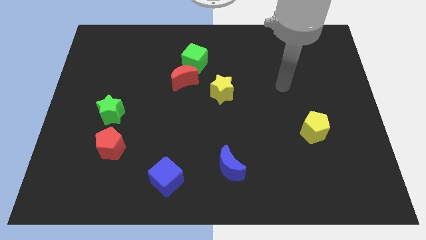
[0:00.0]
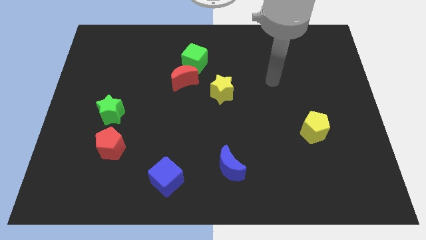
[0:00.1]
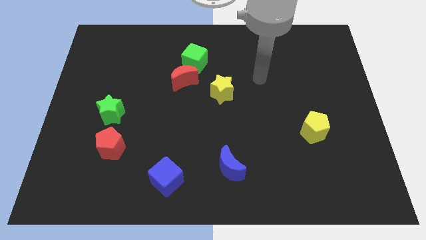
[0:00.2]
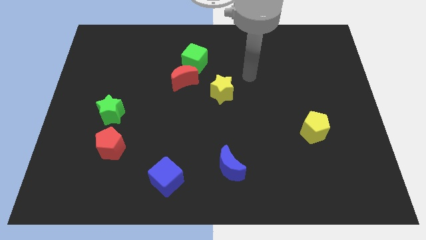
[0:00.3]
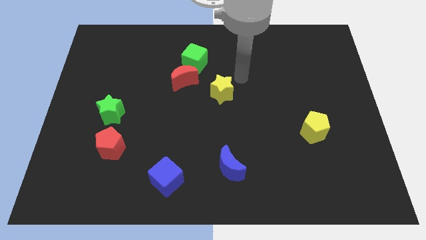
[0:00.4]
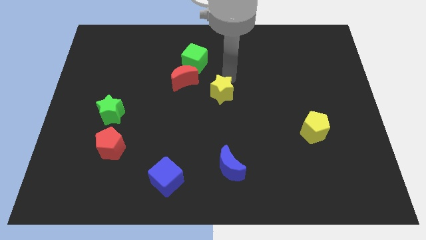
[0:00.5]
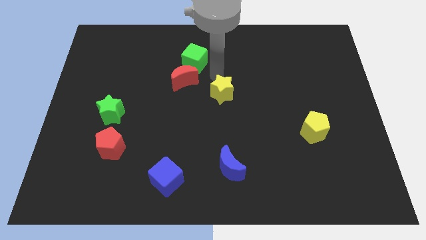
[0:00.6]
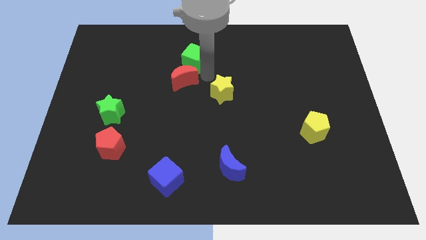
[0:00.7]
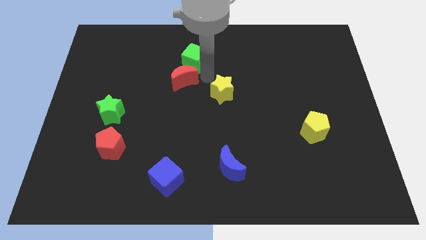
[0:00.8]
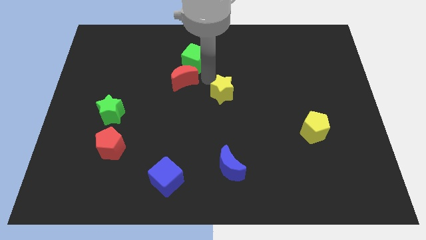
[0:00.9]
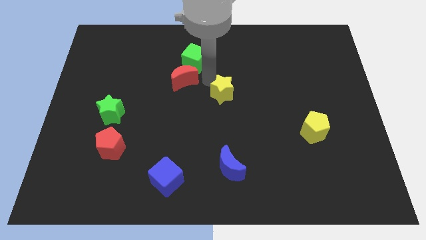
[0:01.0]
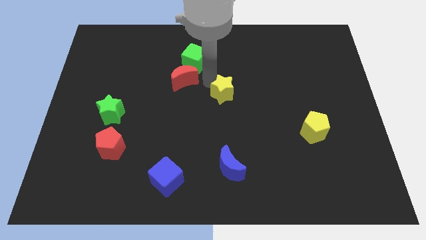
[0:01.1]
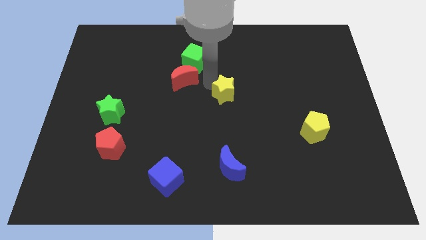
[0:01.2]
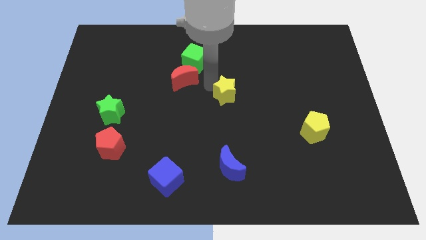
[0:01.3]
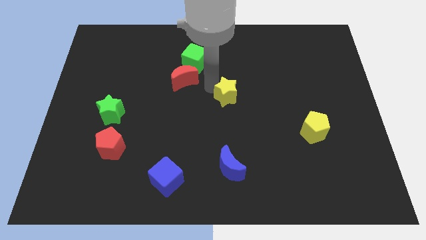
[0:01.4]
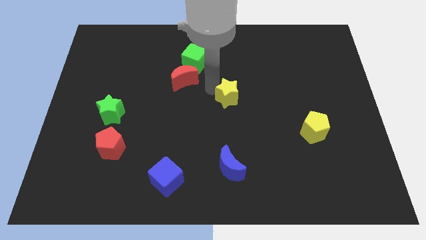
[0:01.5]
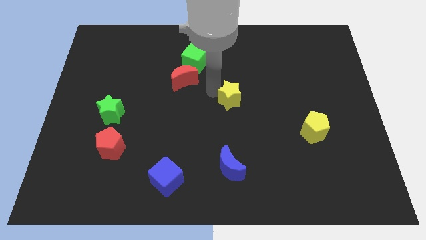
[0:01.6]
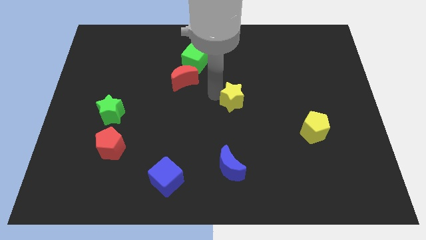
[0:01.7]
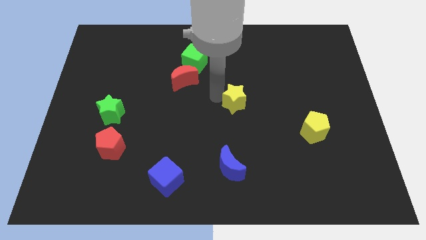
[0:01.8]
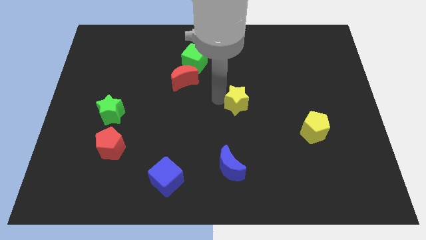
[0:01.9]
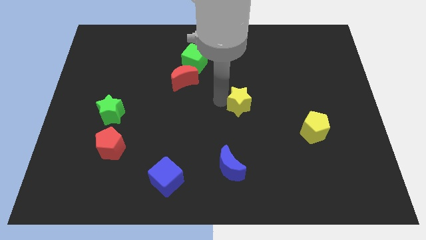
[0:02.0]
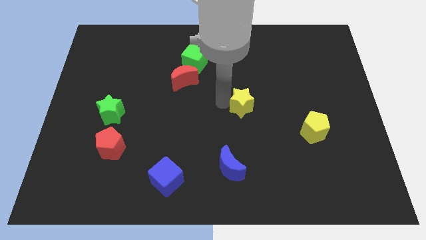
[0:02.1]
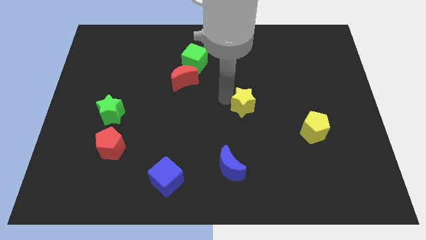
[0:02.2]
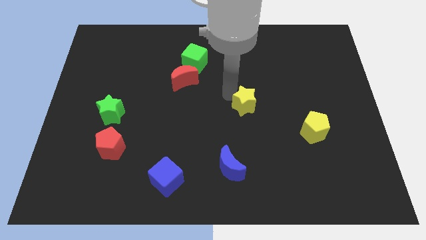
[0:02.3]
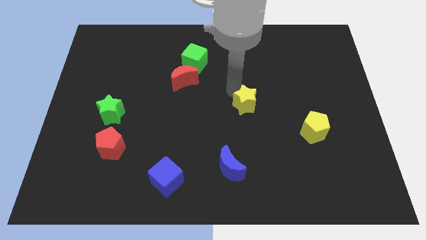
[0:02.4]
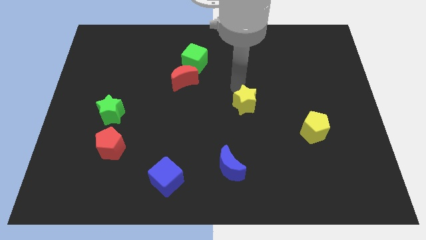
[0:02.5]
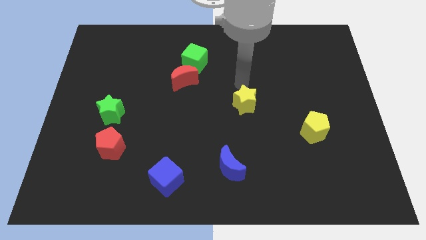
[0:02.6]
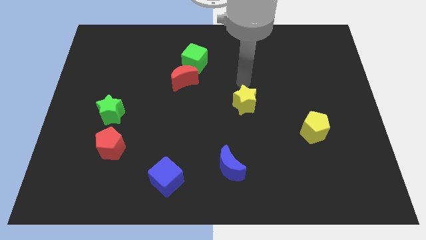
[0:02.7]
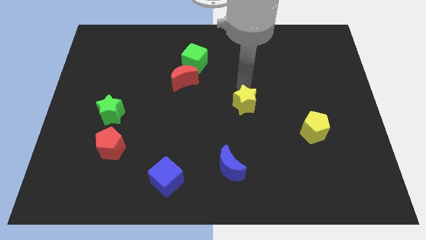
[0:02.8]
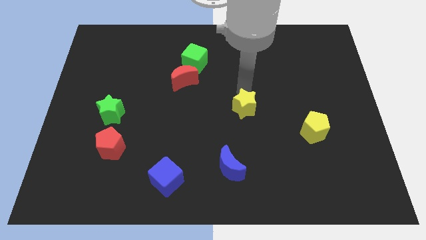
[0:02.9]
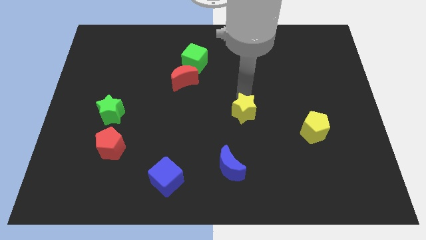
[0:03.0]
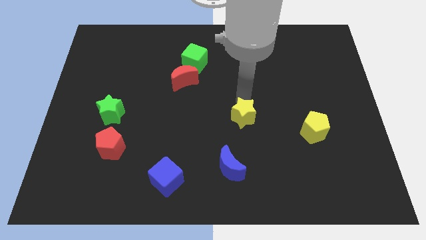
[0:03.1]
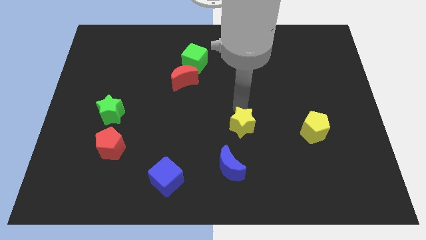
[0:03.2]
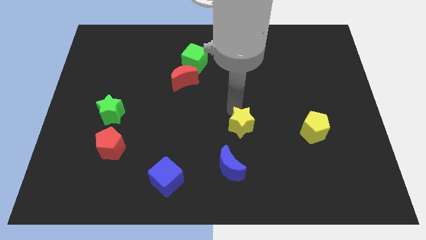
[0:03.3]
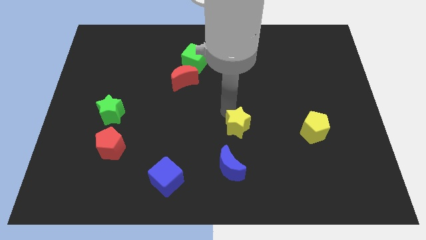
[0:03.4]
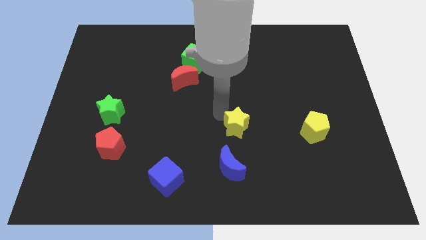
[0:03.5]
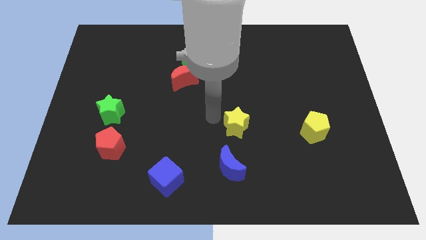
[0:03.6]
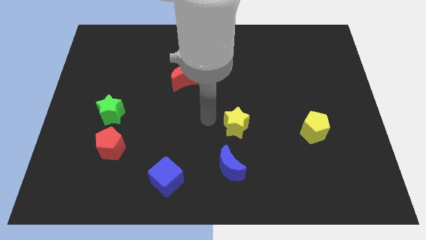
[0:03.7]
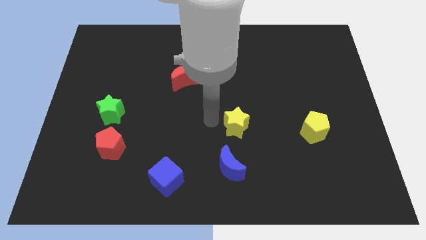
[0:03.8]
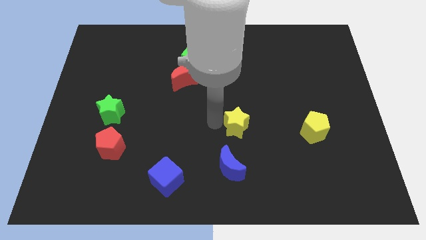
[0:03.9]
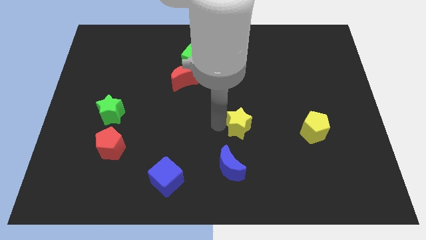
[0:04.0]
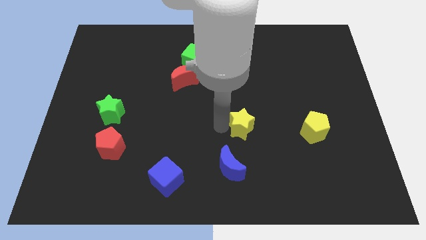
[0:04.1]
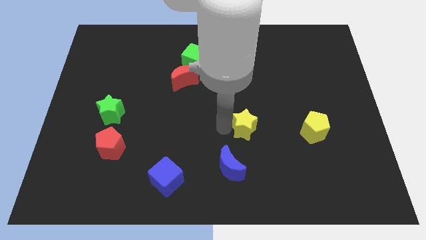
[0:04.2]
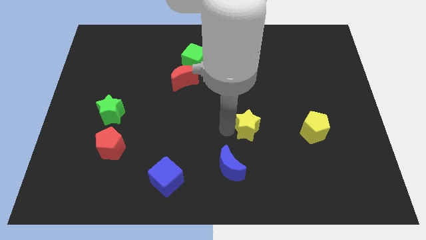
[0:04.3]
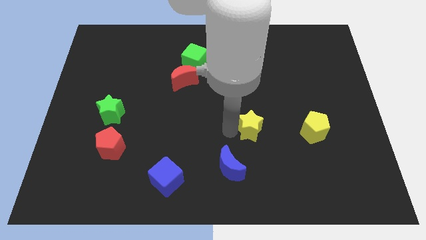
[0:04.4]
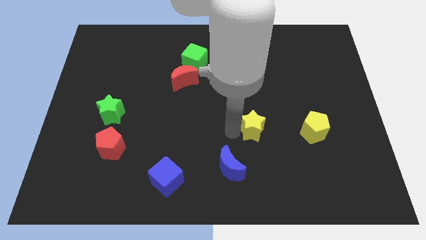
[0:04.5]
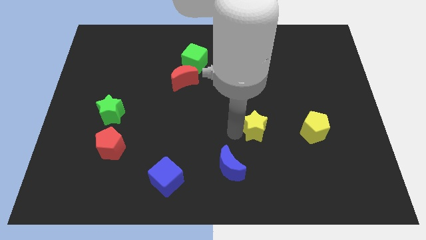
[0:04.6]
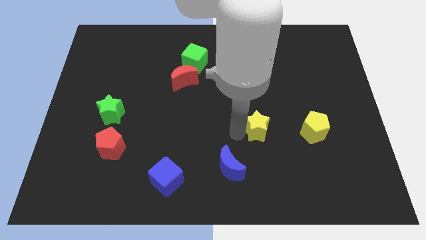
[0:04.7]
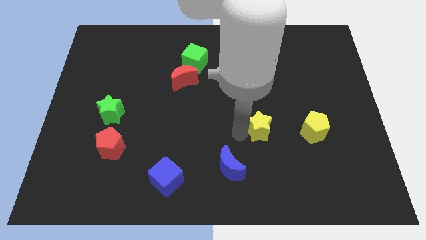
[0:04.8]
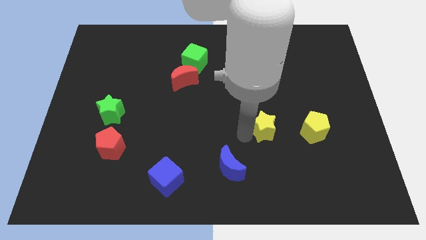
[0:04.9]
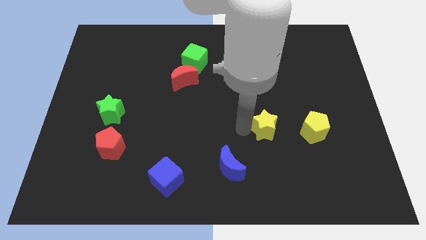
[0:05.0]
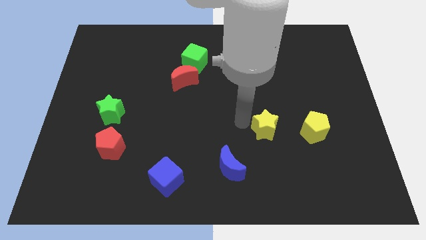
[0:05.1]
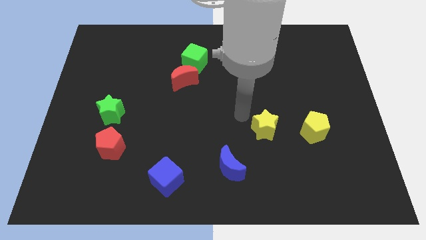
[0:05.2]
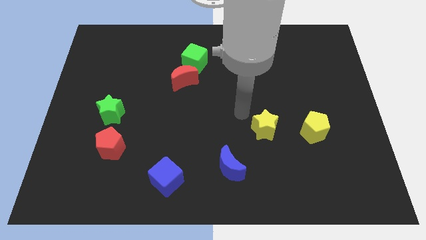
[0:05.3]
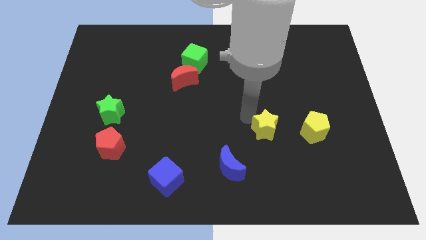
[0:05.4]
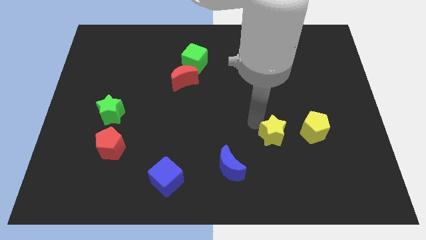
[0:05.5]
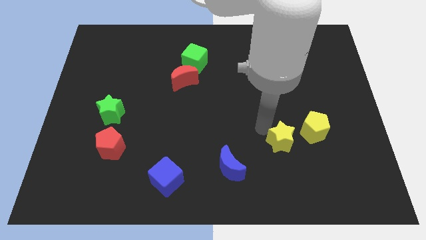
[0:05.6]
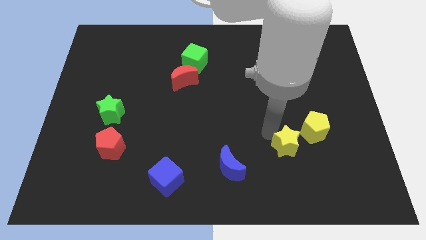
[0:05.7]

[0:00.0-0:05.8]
move the yellow star down and right diagonally

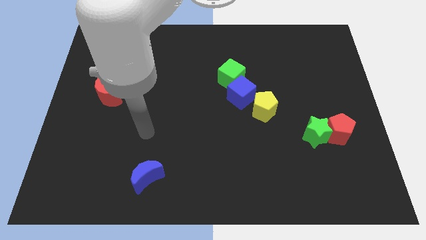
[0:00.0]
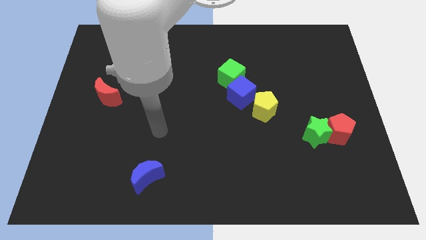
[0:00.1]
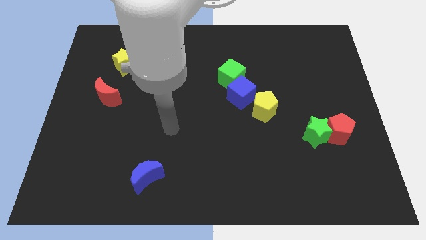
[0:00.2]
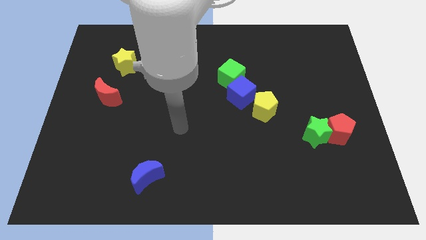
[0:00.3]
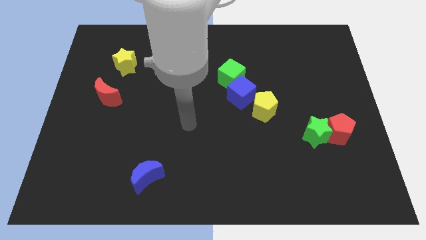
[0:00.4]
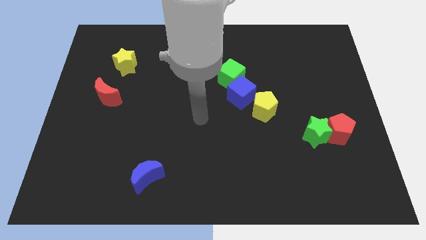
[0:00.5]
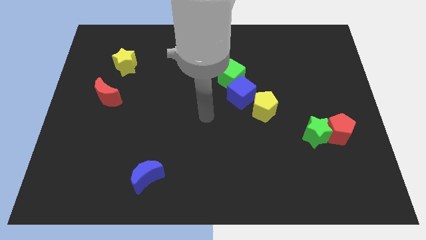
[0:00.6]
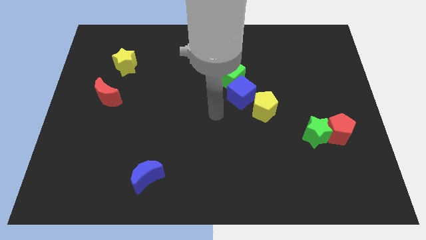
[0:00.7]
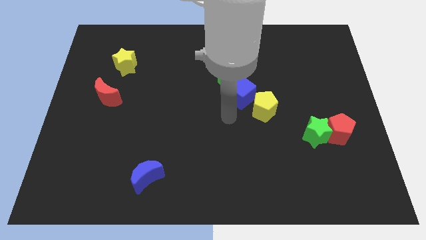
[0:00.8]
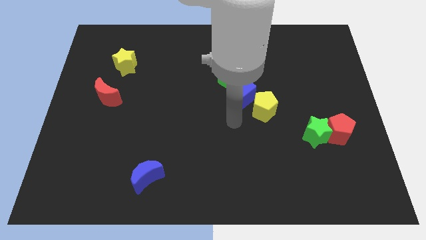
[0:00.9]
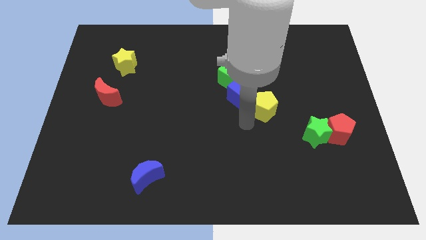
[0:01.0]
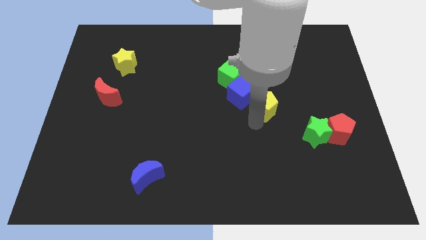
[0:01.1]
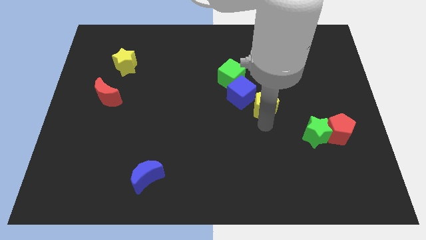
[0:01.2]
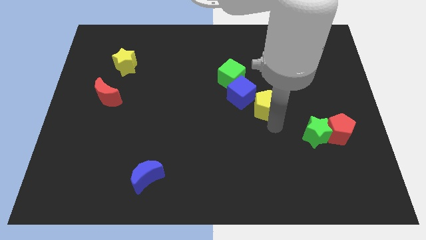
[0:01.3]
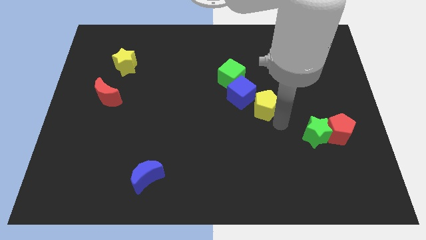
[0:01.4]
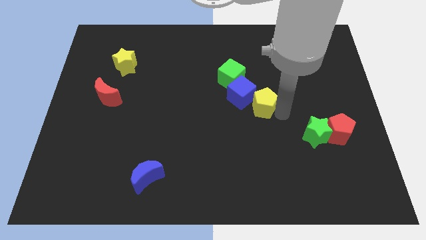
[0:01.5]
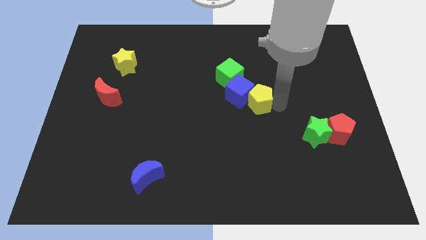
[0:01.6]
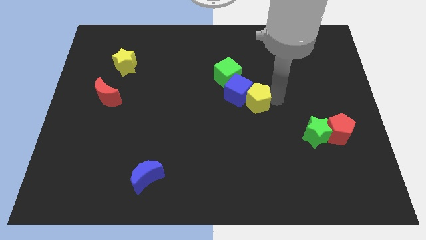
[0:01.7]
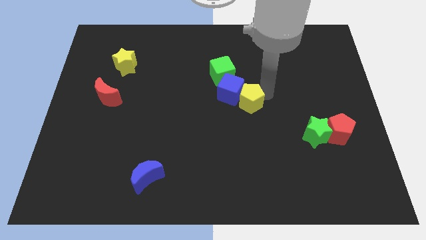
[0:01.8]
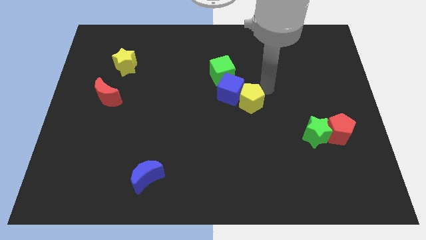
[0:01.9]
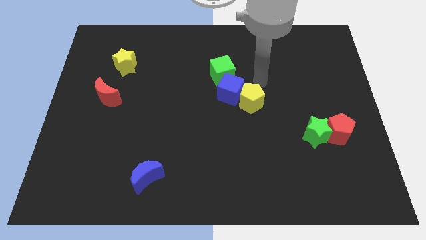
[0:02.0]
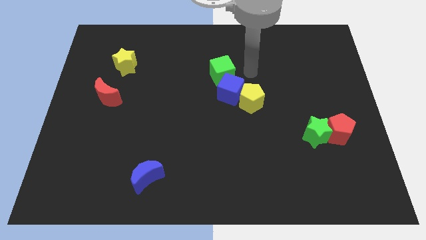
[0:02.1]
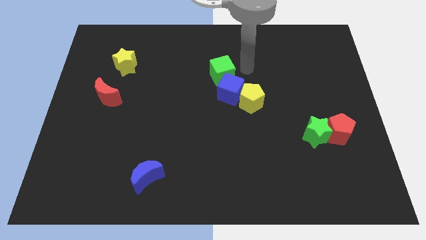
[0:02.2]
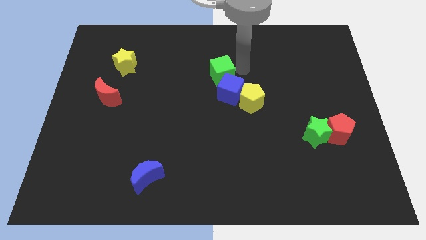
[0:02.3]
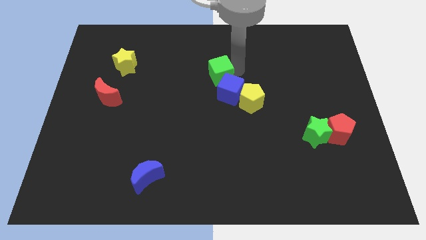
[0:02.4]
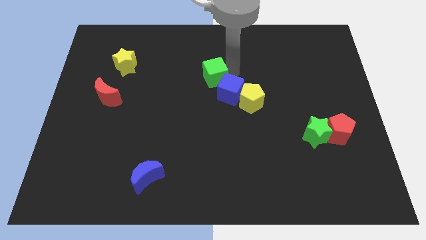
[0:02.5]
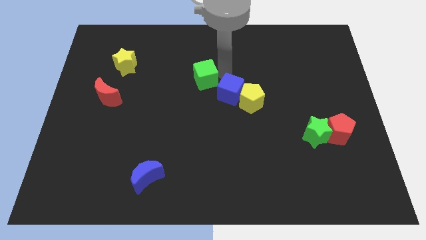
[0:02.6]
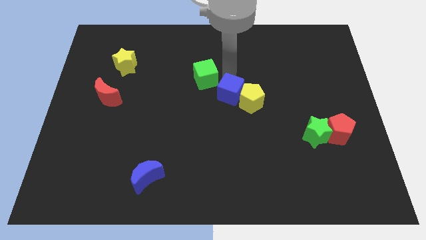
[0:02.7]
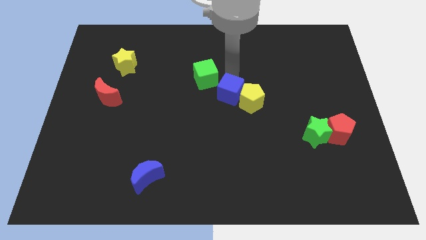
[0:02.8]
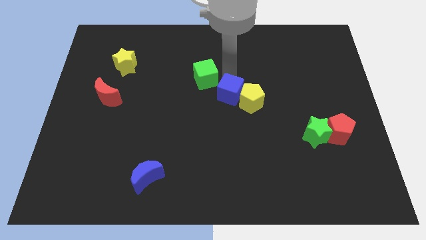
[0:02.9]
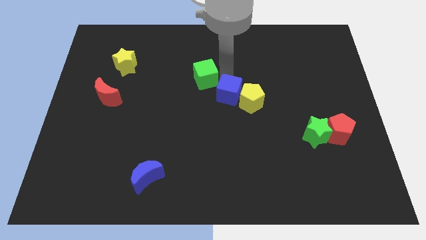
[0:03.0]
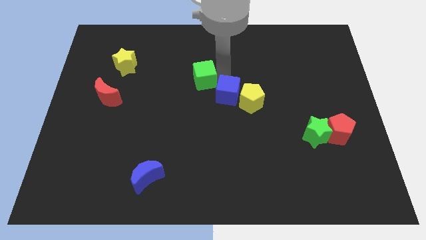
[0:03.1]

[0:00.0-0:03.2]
move the green cube to the left a little
